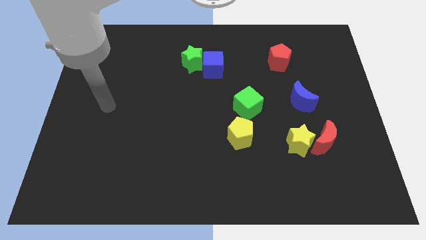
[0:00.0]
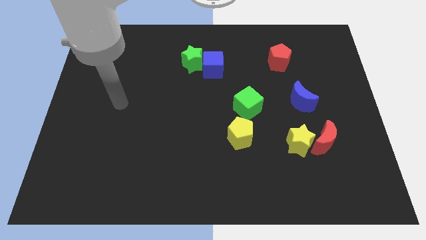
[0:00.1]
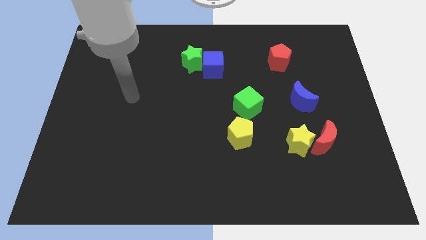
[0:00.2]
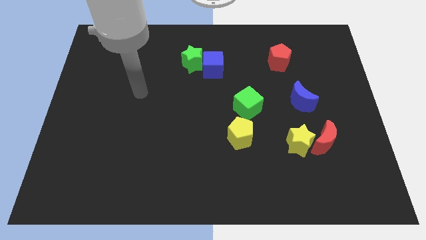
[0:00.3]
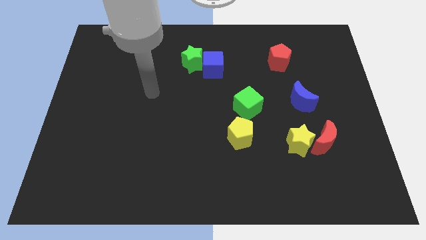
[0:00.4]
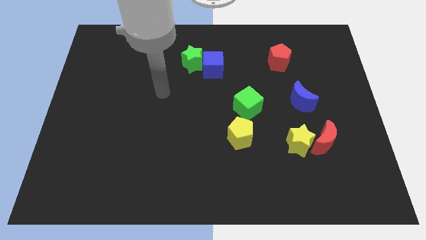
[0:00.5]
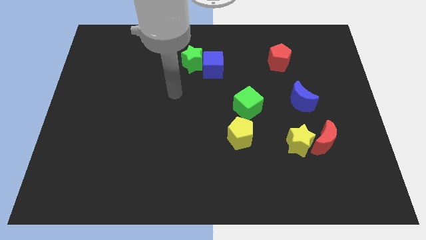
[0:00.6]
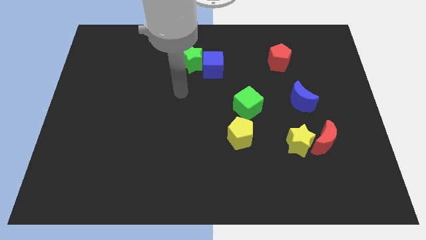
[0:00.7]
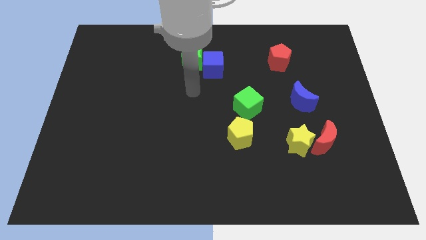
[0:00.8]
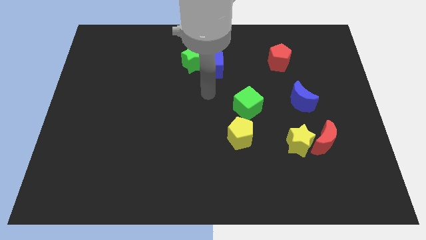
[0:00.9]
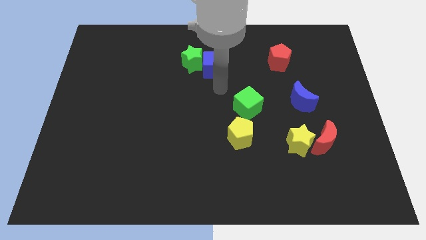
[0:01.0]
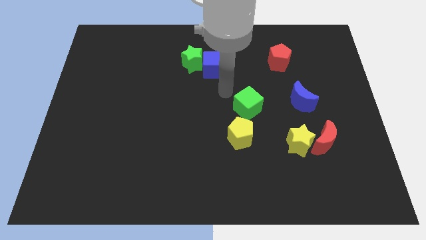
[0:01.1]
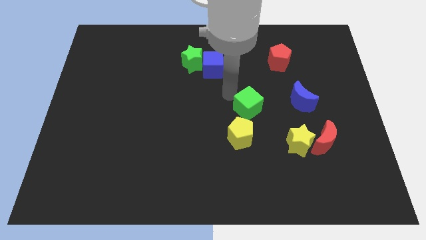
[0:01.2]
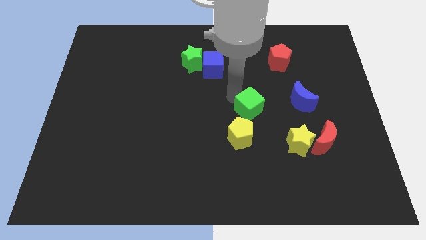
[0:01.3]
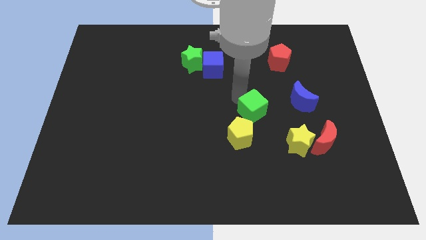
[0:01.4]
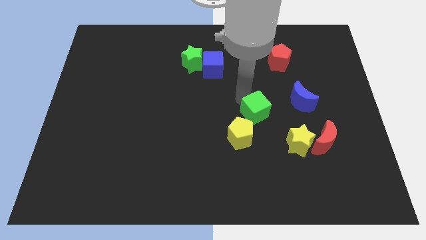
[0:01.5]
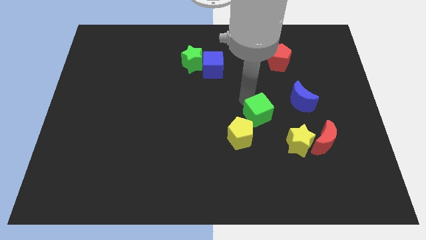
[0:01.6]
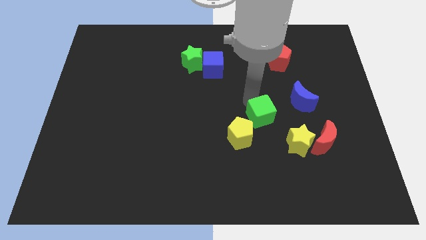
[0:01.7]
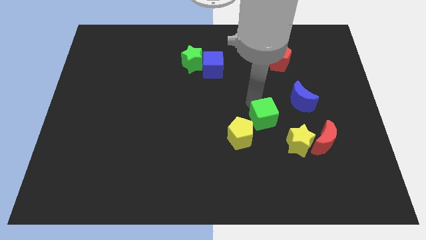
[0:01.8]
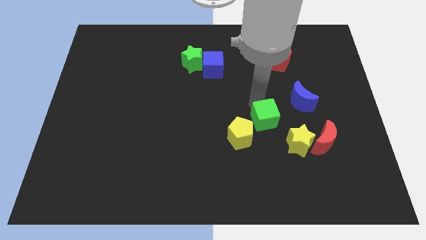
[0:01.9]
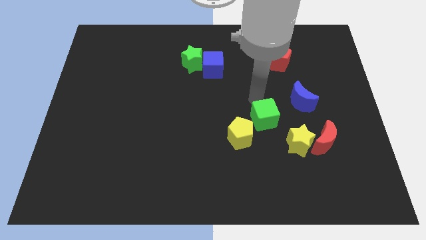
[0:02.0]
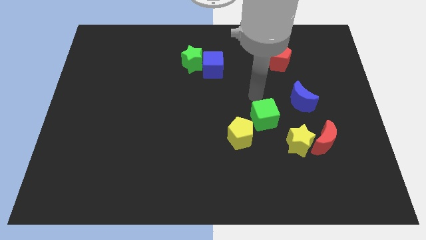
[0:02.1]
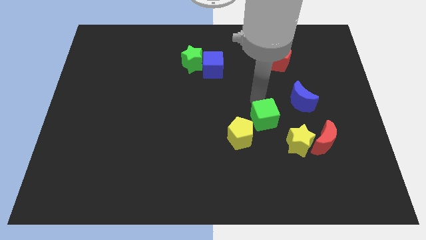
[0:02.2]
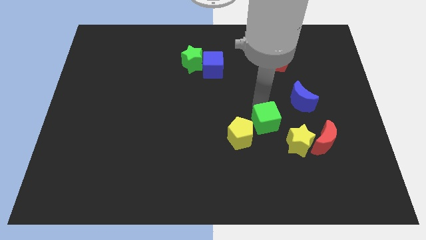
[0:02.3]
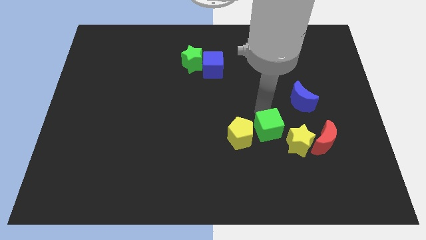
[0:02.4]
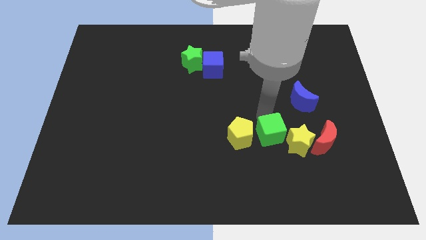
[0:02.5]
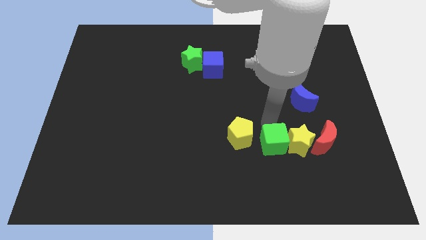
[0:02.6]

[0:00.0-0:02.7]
push the green cube down somewhat

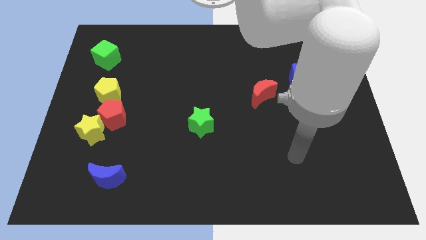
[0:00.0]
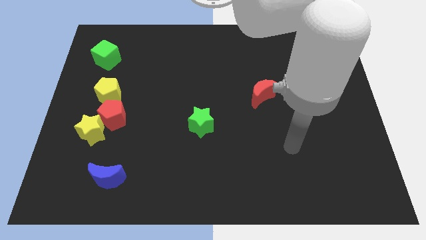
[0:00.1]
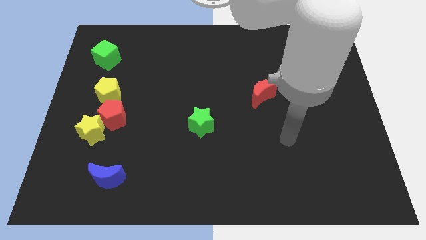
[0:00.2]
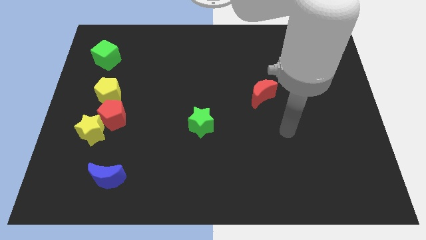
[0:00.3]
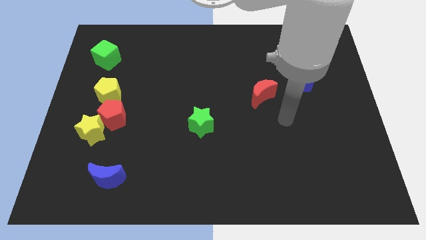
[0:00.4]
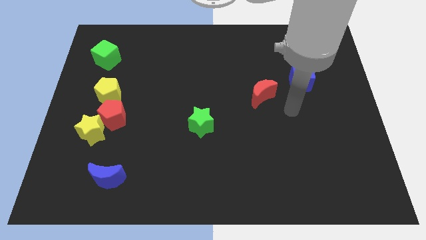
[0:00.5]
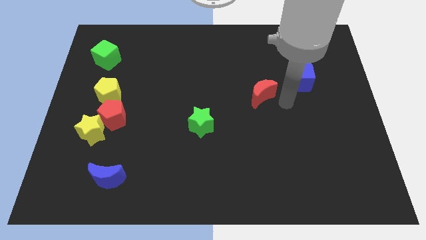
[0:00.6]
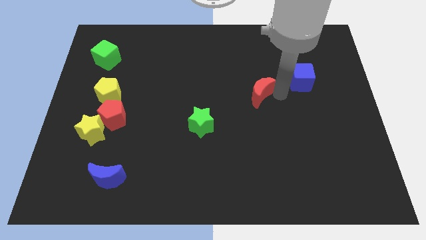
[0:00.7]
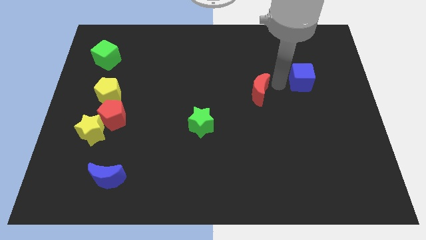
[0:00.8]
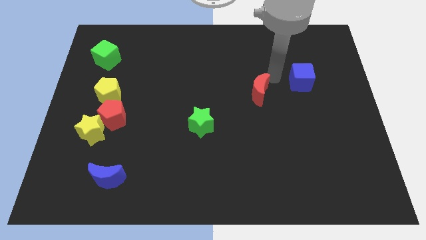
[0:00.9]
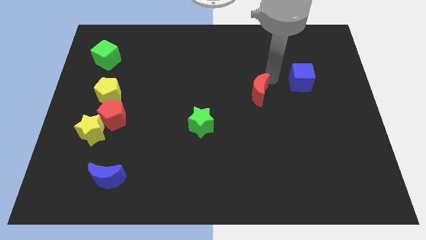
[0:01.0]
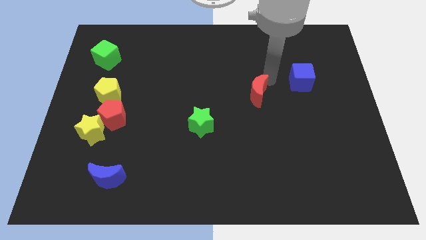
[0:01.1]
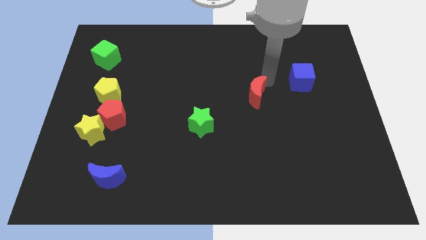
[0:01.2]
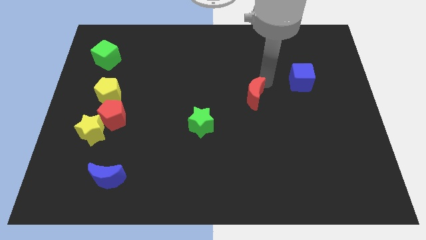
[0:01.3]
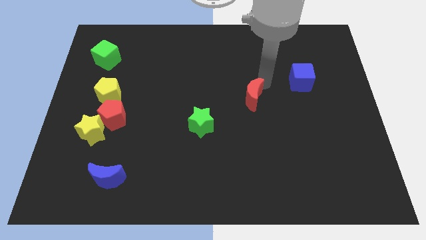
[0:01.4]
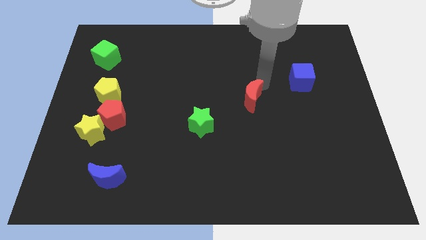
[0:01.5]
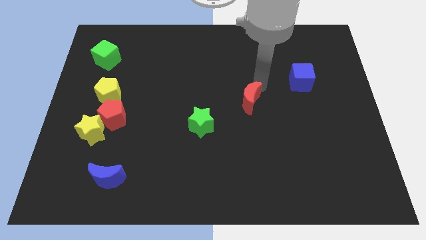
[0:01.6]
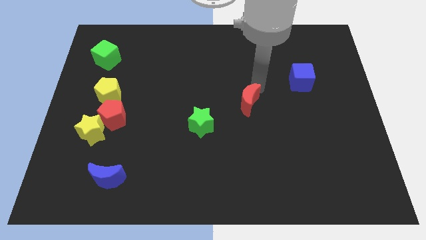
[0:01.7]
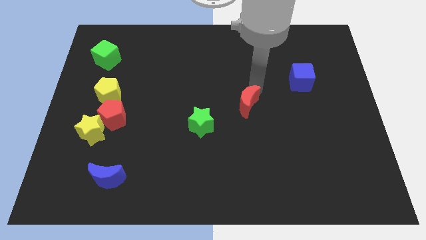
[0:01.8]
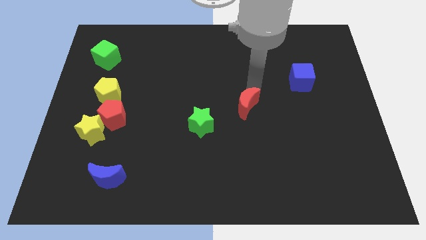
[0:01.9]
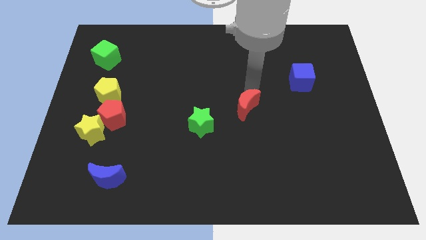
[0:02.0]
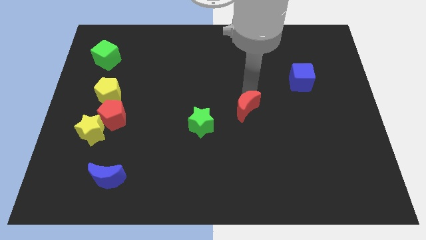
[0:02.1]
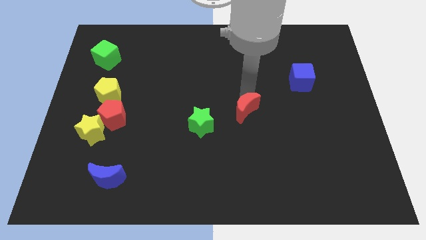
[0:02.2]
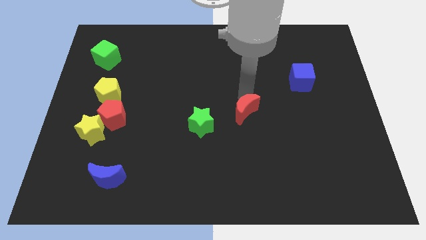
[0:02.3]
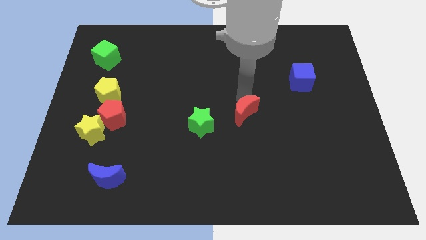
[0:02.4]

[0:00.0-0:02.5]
slightly move the red moon down and then left

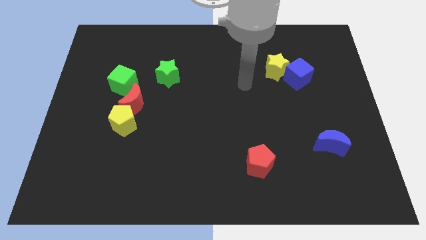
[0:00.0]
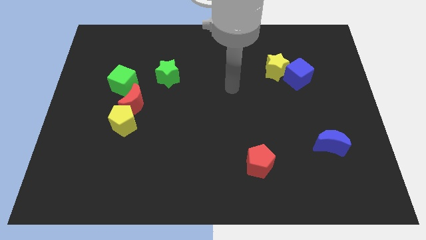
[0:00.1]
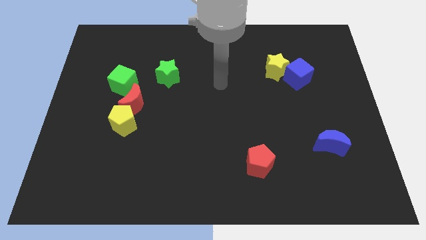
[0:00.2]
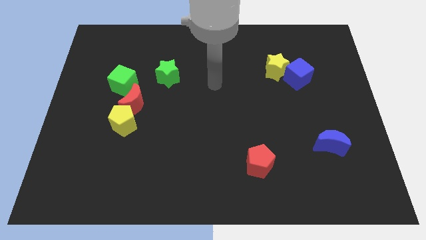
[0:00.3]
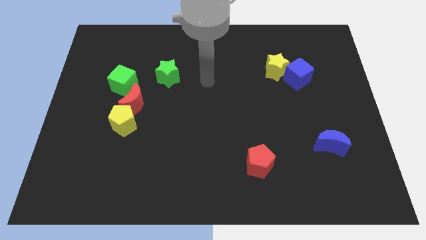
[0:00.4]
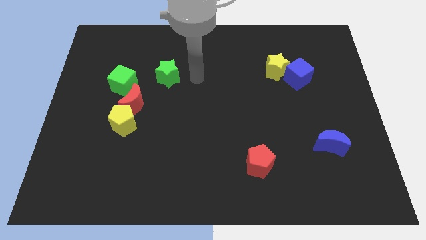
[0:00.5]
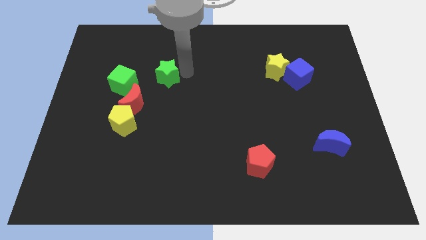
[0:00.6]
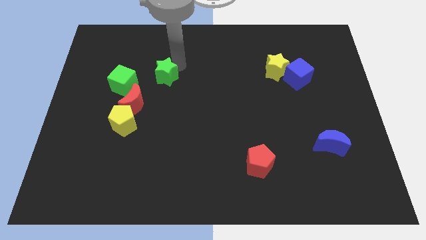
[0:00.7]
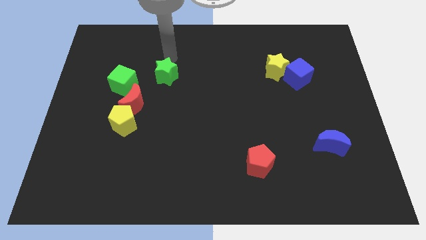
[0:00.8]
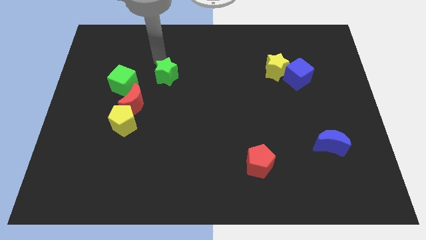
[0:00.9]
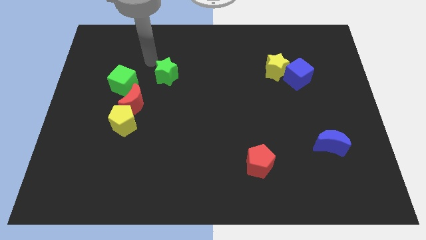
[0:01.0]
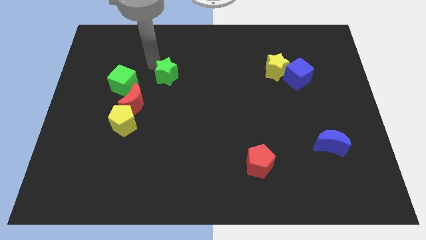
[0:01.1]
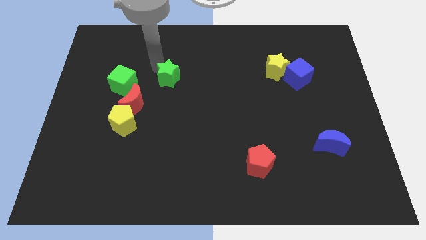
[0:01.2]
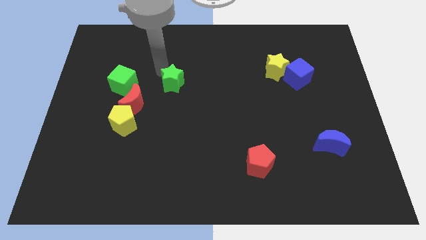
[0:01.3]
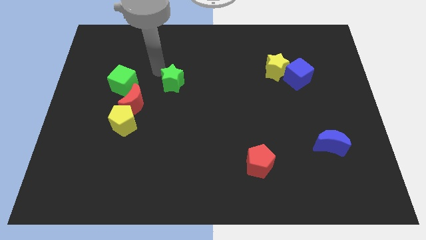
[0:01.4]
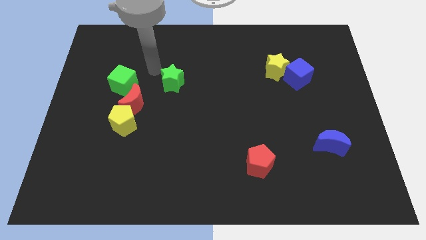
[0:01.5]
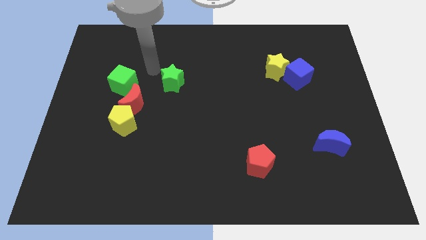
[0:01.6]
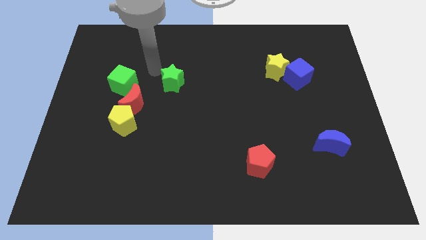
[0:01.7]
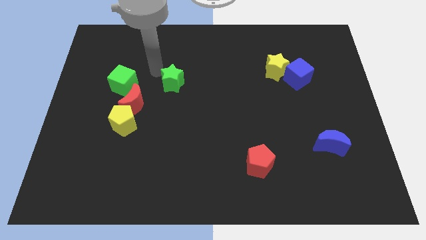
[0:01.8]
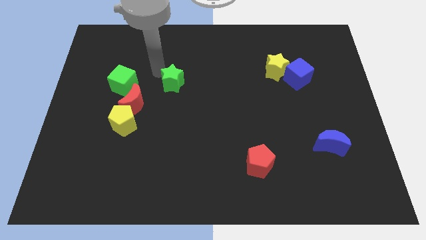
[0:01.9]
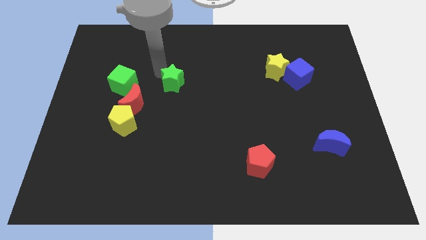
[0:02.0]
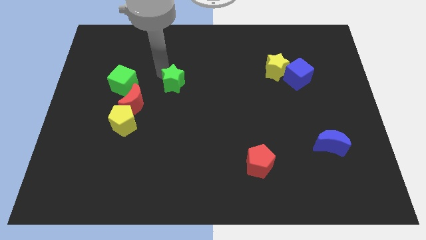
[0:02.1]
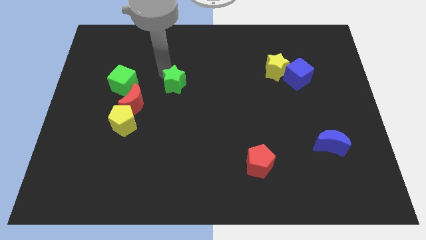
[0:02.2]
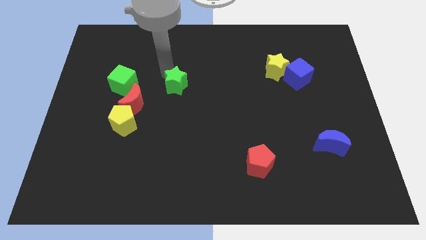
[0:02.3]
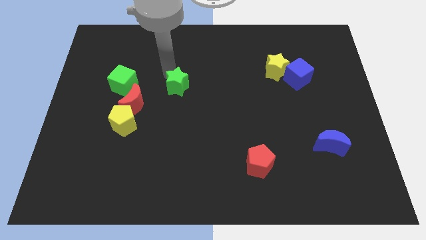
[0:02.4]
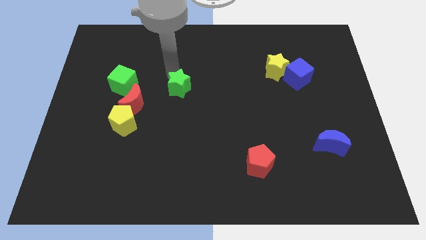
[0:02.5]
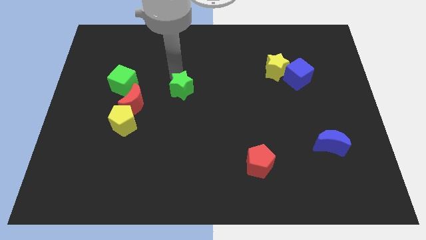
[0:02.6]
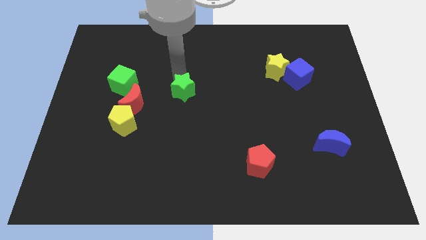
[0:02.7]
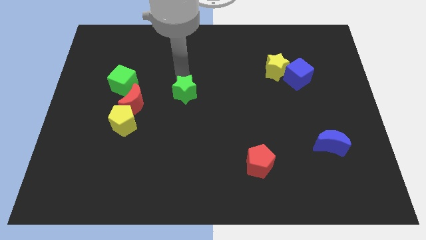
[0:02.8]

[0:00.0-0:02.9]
slightly slide the green star diagonally downwards and to the right

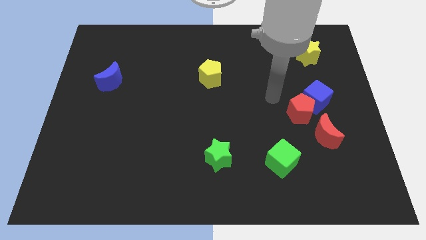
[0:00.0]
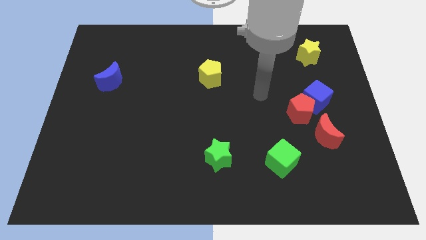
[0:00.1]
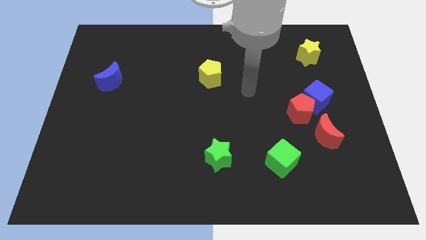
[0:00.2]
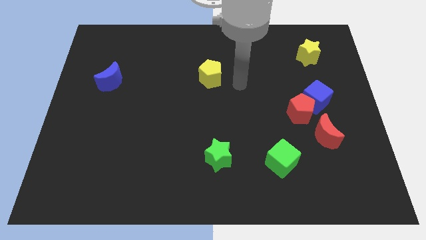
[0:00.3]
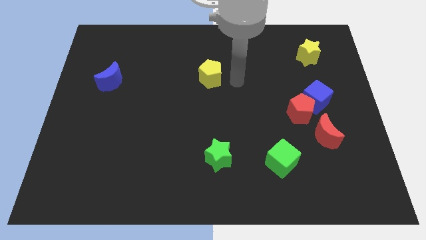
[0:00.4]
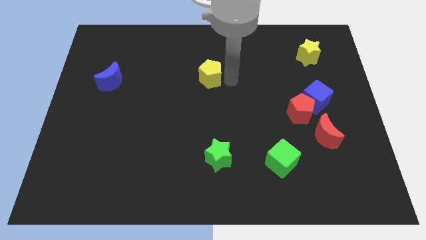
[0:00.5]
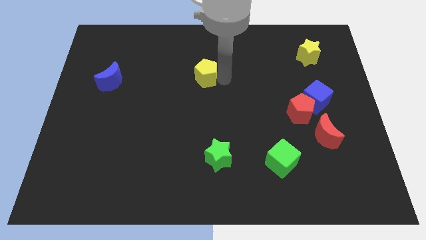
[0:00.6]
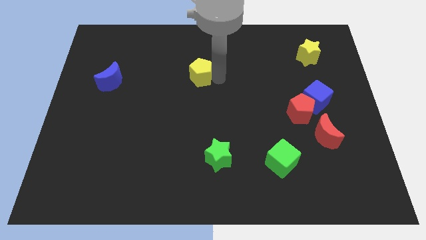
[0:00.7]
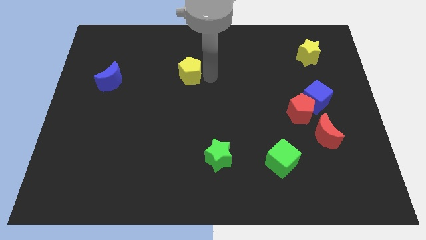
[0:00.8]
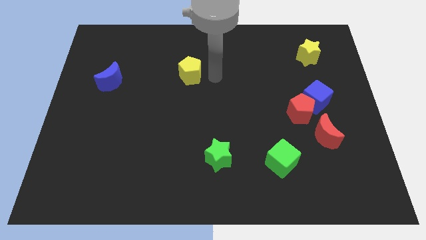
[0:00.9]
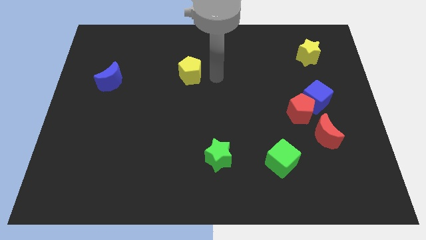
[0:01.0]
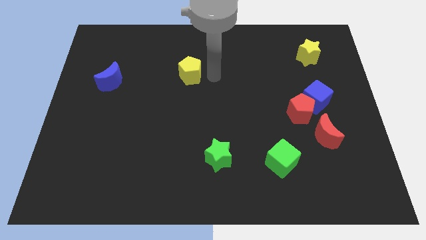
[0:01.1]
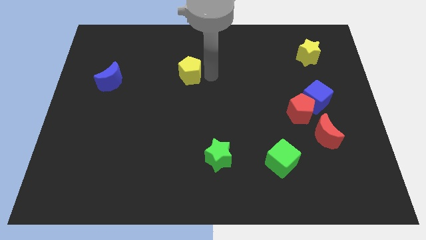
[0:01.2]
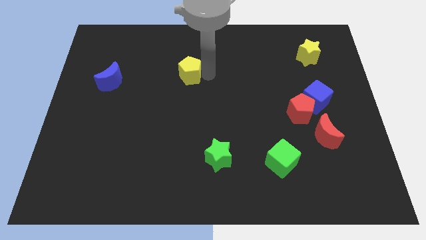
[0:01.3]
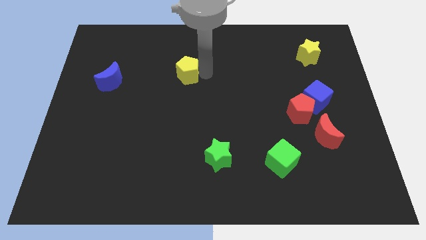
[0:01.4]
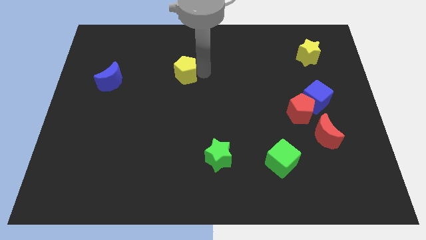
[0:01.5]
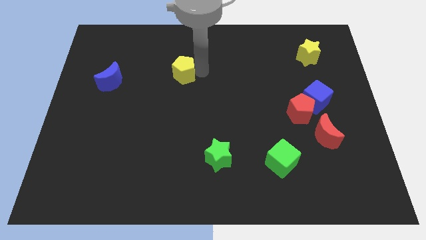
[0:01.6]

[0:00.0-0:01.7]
move the yellow pentagon a little bit left
